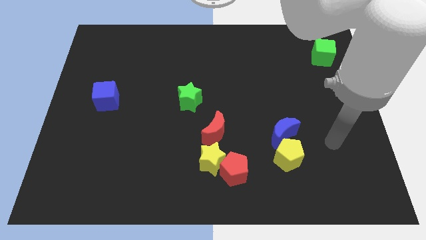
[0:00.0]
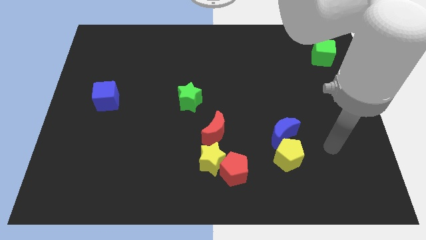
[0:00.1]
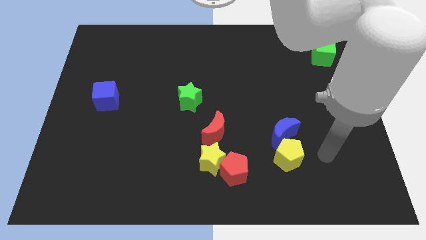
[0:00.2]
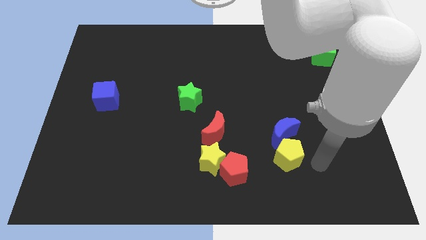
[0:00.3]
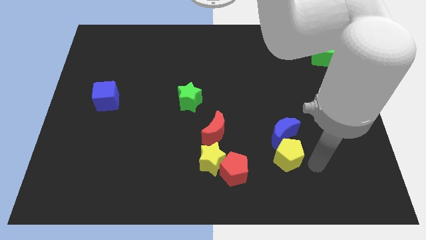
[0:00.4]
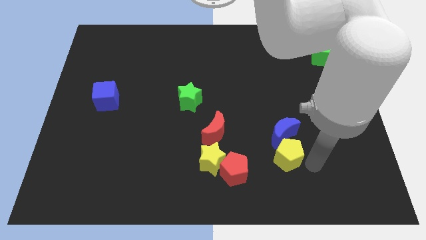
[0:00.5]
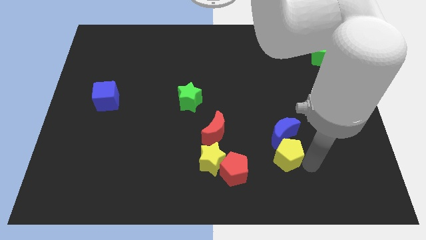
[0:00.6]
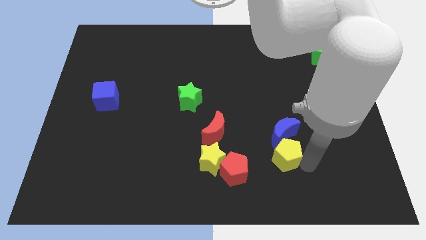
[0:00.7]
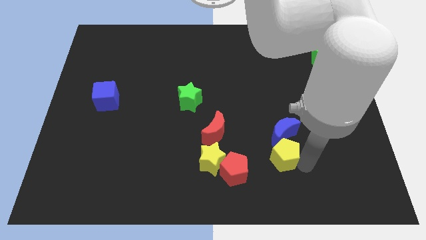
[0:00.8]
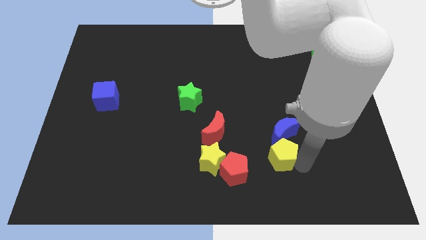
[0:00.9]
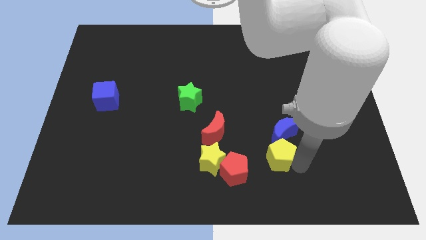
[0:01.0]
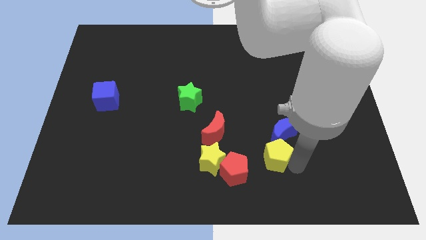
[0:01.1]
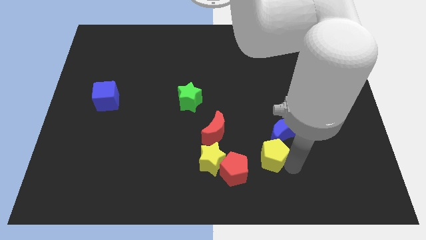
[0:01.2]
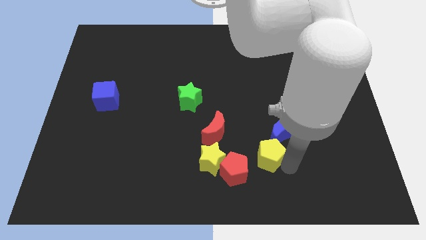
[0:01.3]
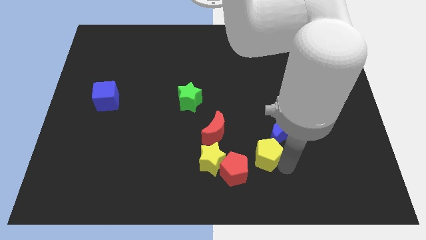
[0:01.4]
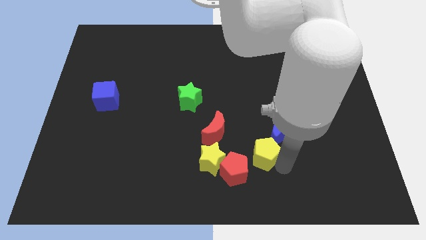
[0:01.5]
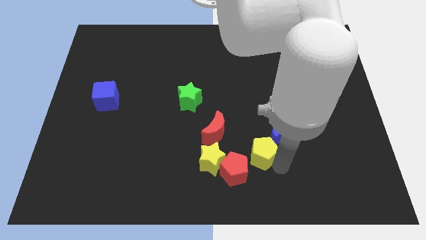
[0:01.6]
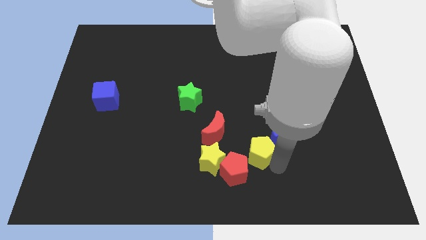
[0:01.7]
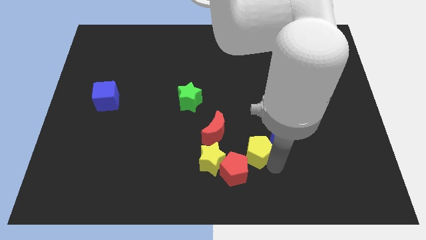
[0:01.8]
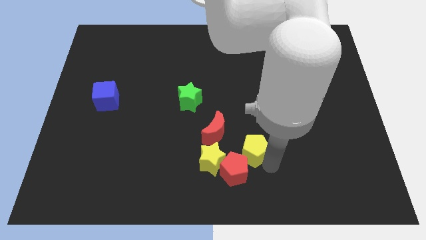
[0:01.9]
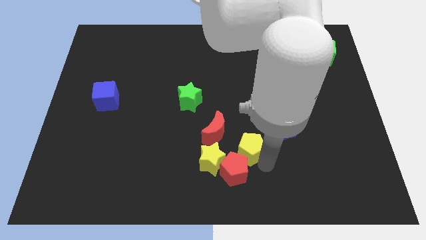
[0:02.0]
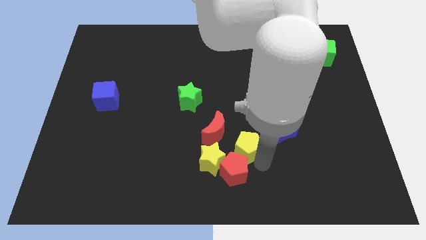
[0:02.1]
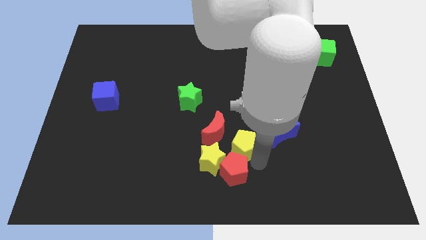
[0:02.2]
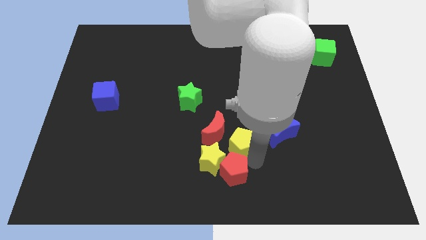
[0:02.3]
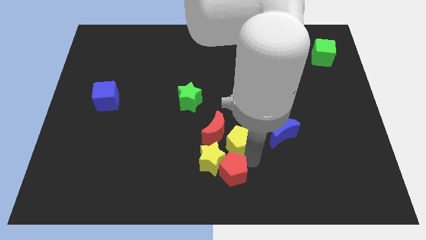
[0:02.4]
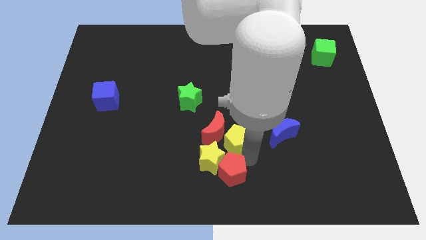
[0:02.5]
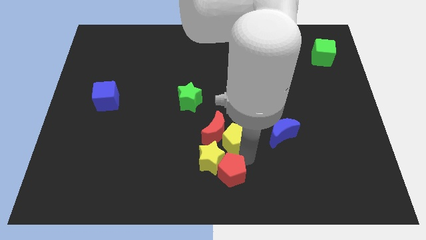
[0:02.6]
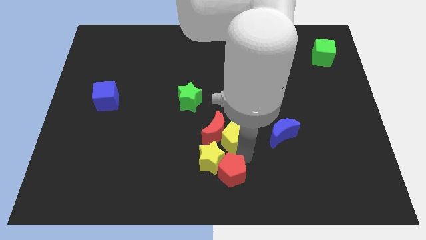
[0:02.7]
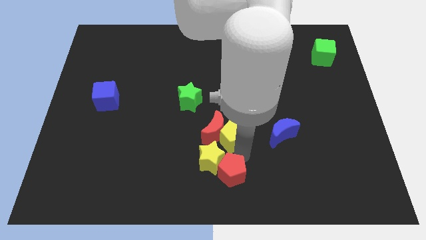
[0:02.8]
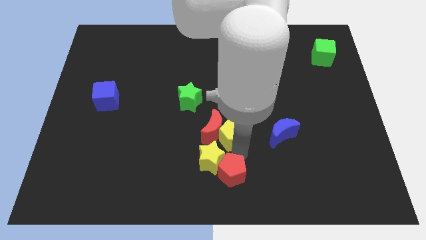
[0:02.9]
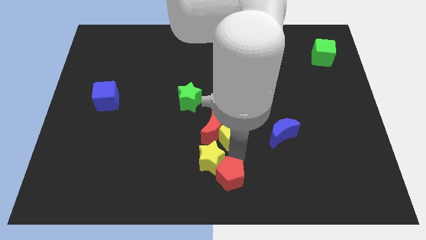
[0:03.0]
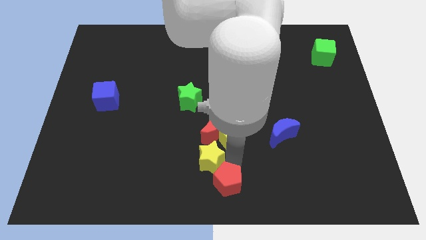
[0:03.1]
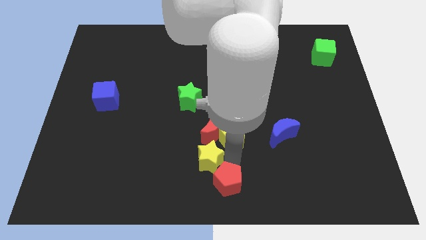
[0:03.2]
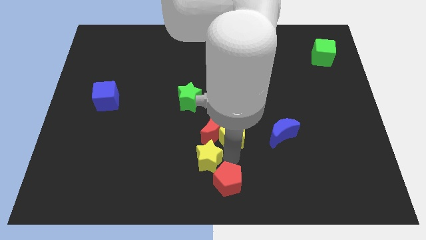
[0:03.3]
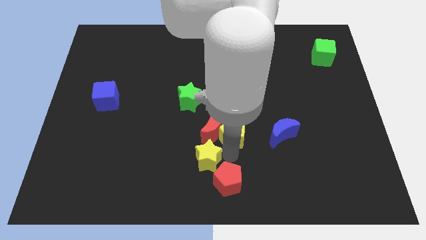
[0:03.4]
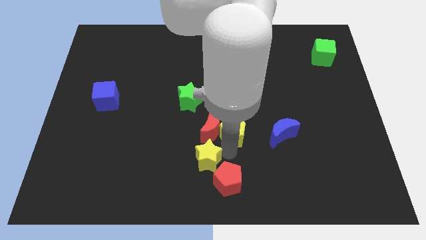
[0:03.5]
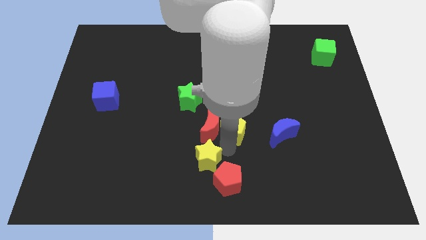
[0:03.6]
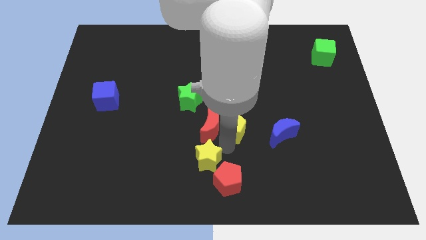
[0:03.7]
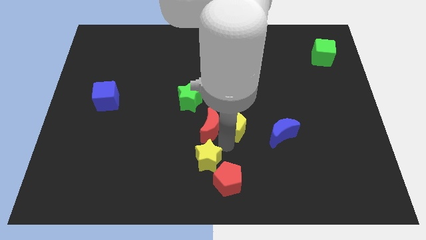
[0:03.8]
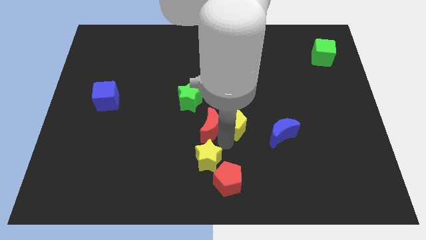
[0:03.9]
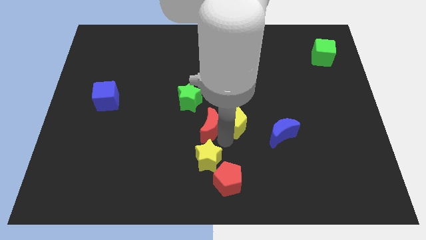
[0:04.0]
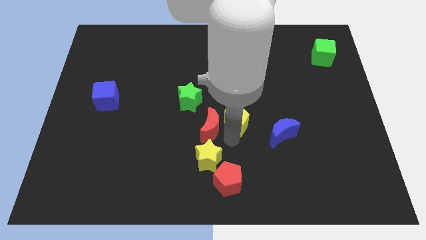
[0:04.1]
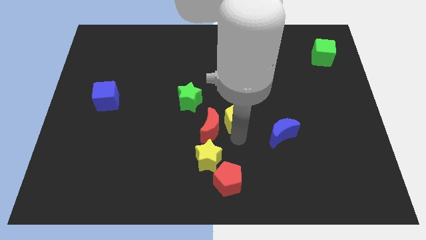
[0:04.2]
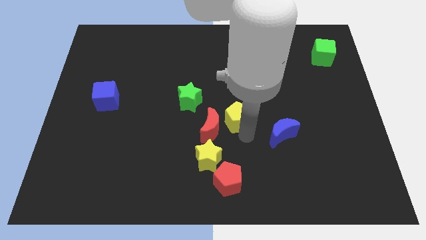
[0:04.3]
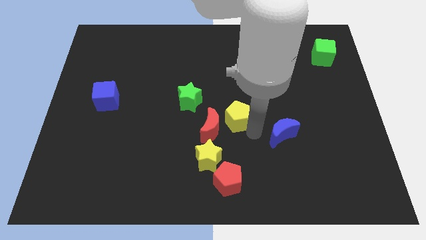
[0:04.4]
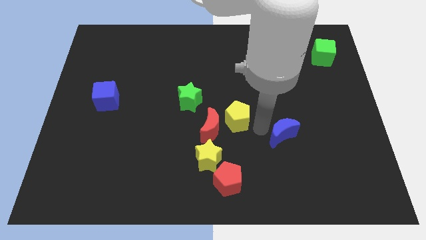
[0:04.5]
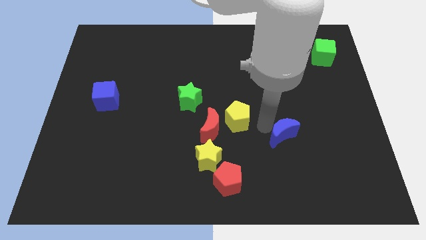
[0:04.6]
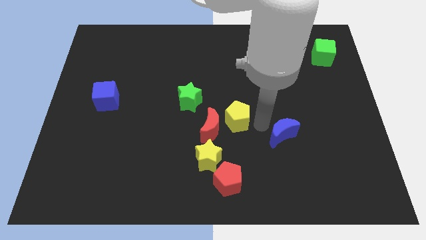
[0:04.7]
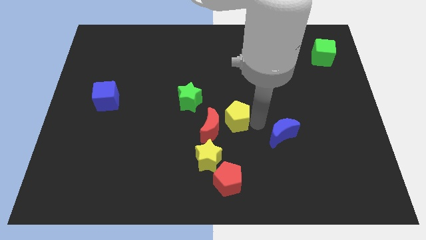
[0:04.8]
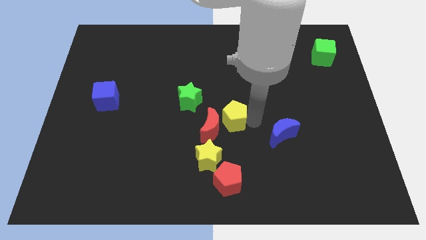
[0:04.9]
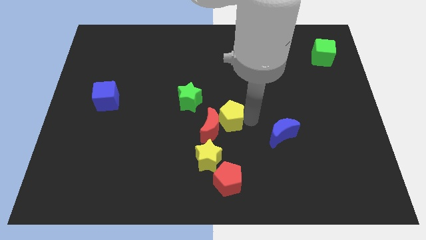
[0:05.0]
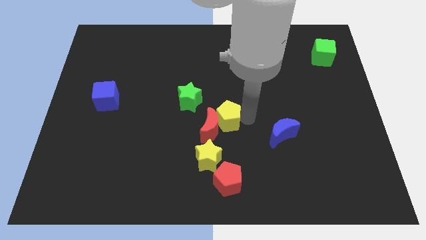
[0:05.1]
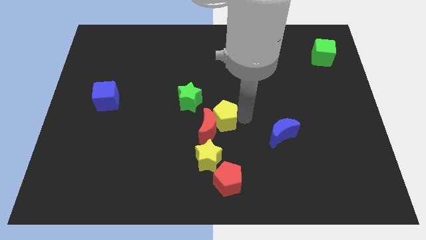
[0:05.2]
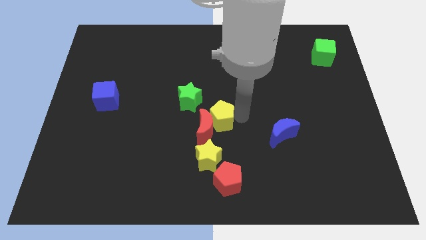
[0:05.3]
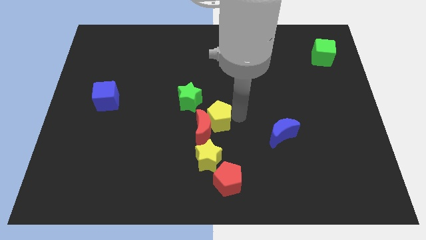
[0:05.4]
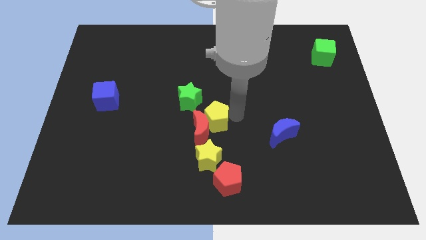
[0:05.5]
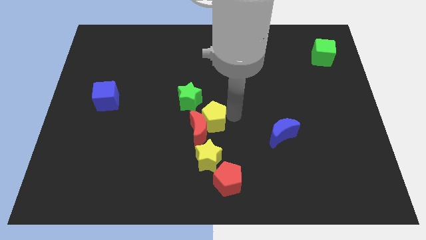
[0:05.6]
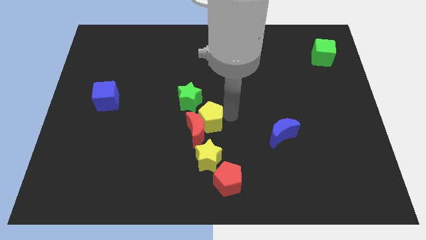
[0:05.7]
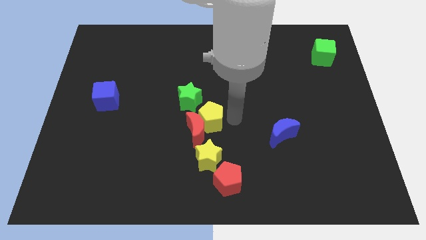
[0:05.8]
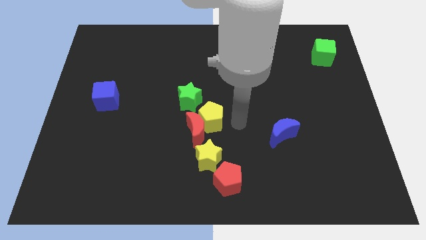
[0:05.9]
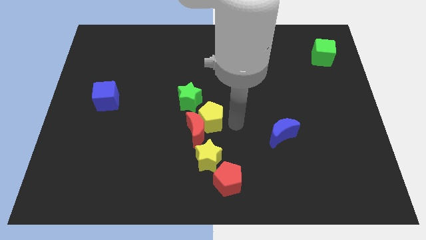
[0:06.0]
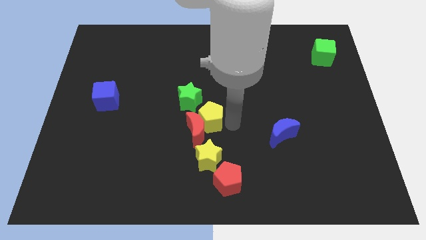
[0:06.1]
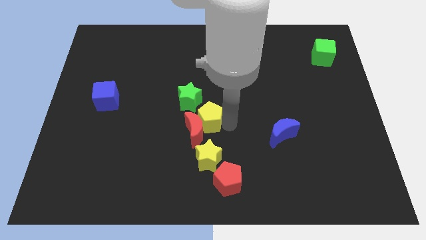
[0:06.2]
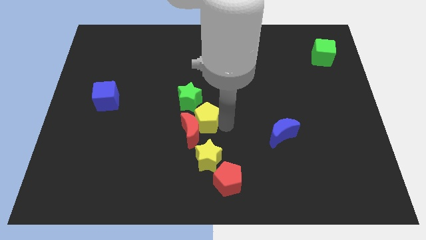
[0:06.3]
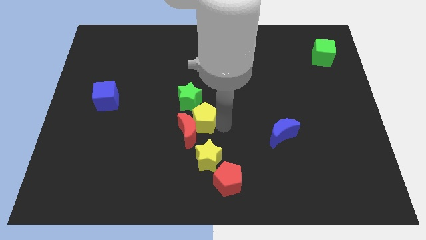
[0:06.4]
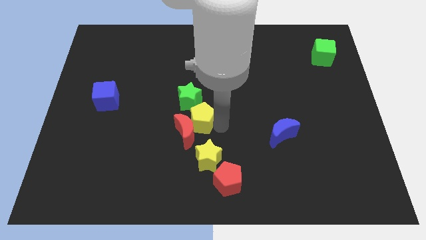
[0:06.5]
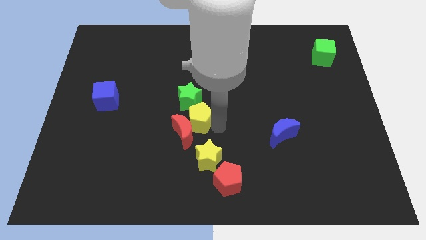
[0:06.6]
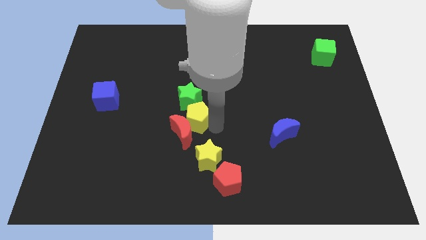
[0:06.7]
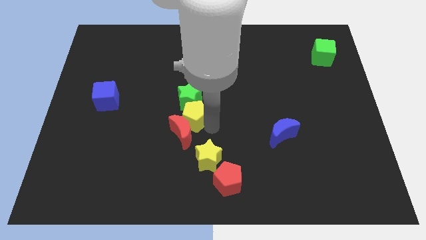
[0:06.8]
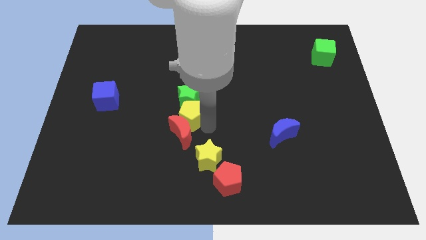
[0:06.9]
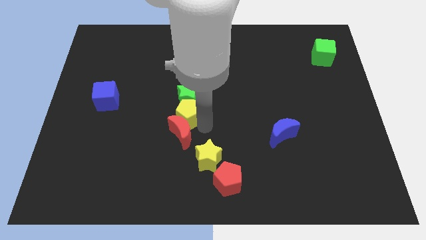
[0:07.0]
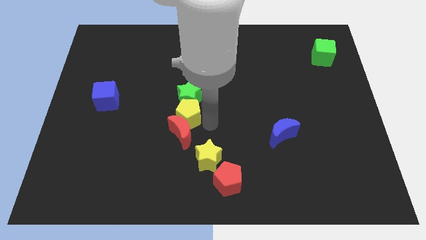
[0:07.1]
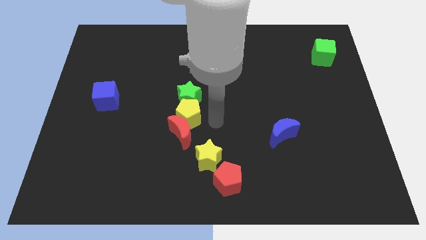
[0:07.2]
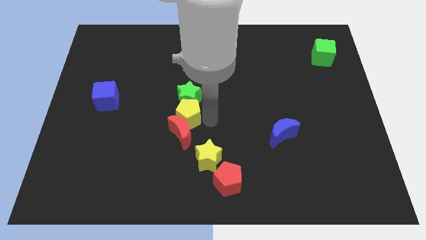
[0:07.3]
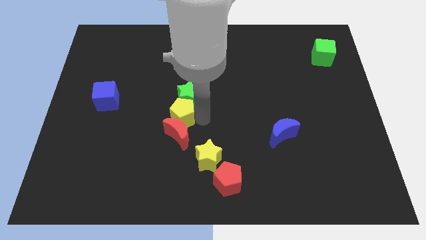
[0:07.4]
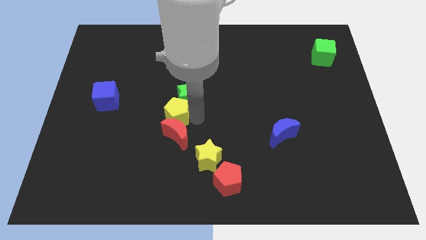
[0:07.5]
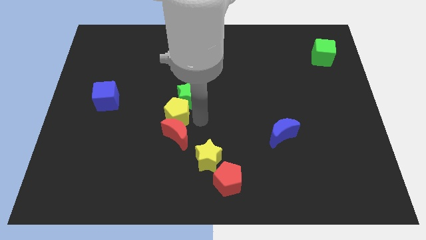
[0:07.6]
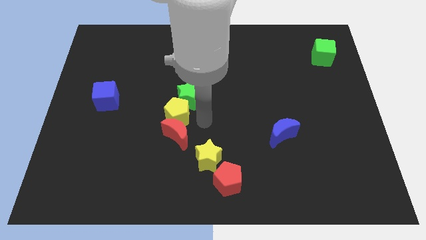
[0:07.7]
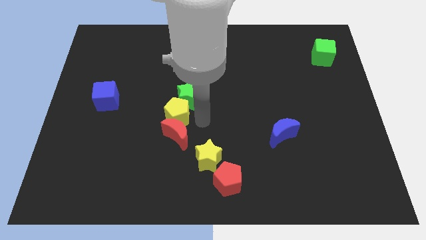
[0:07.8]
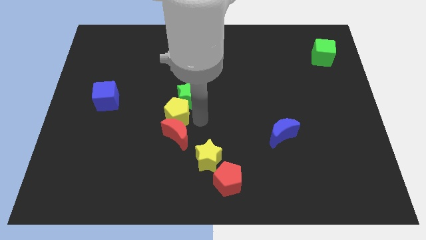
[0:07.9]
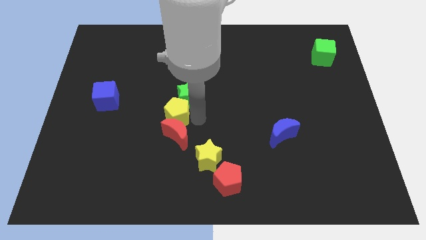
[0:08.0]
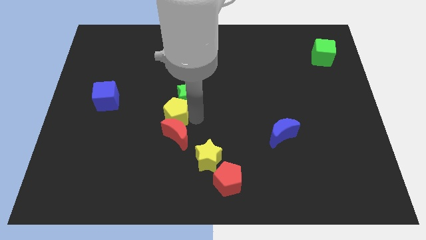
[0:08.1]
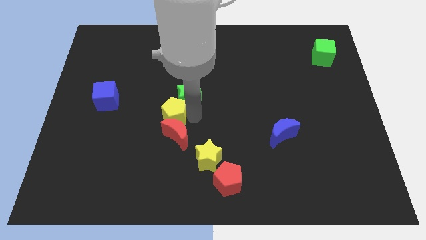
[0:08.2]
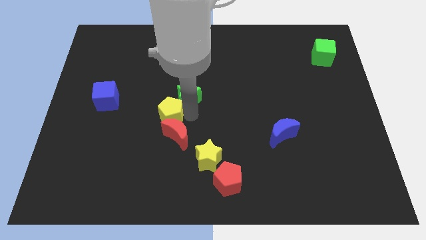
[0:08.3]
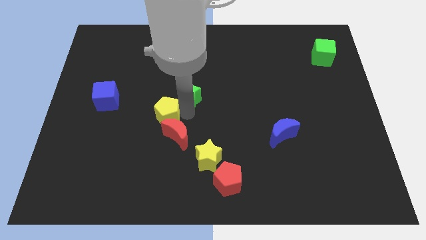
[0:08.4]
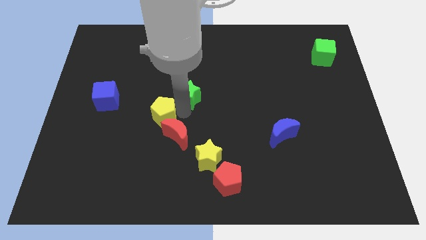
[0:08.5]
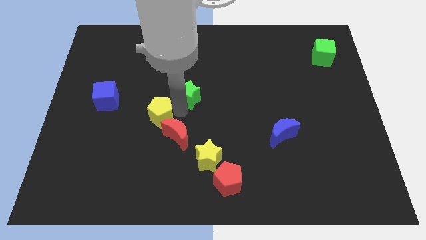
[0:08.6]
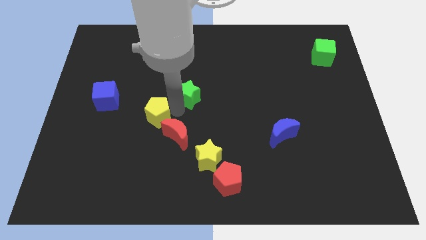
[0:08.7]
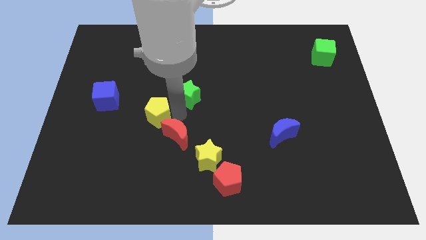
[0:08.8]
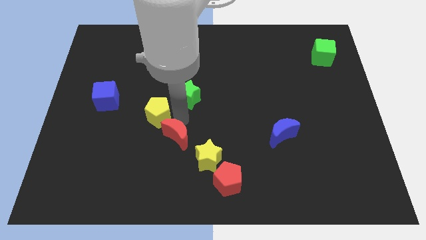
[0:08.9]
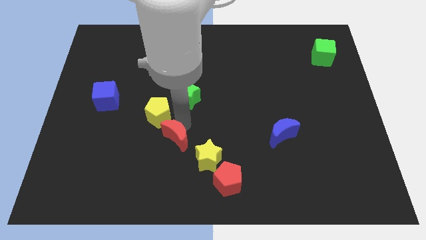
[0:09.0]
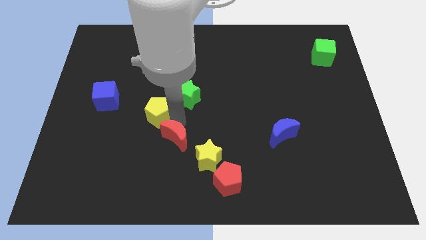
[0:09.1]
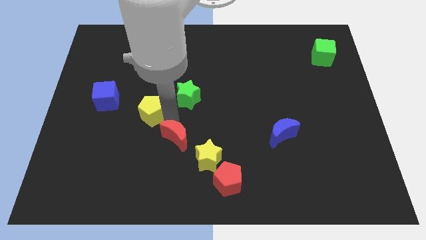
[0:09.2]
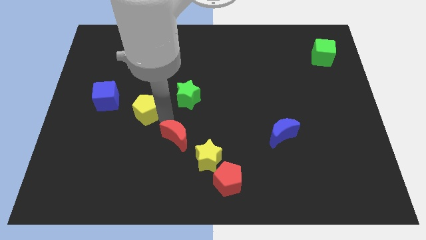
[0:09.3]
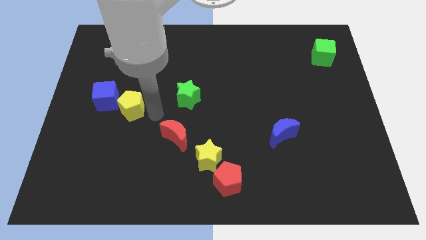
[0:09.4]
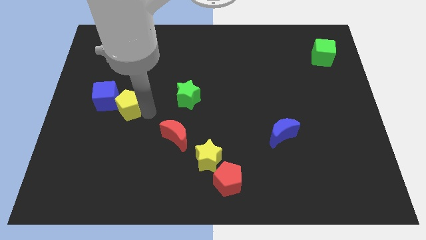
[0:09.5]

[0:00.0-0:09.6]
put the yellow pentagon towards the blue cube
